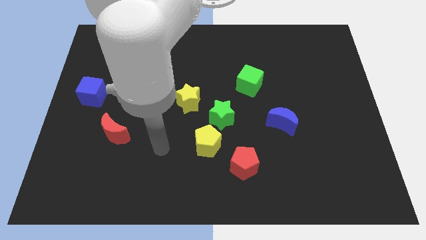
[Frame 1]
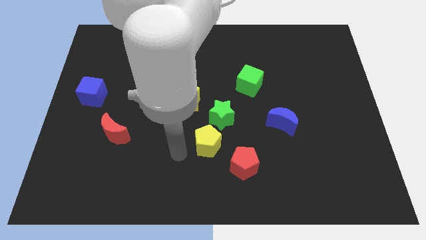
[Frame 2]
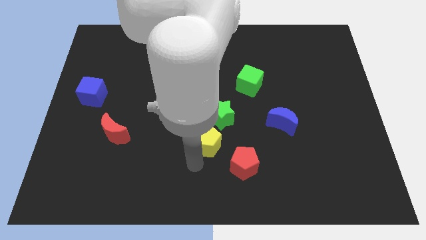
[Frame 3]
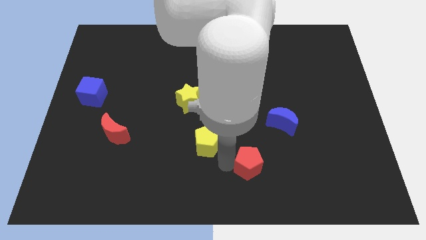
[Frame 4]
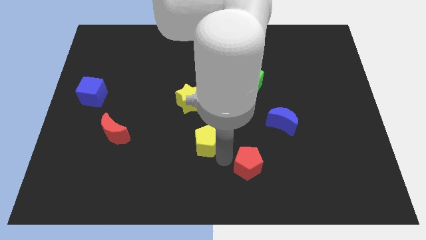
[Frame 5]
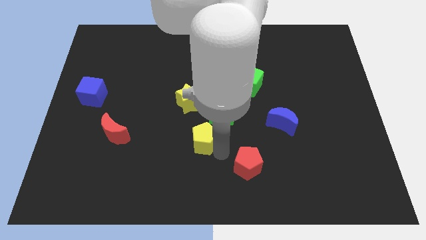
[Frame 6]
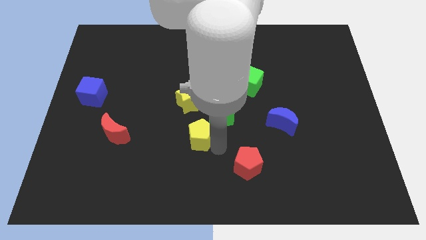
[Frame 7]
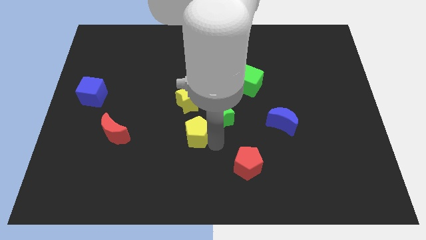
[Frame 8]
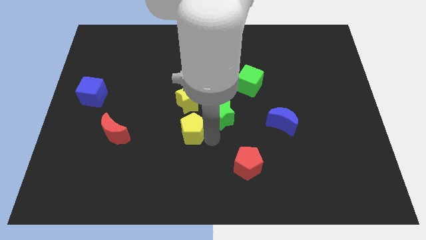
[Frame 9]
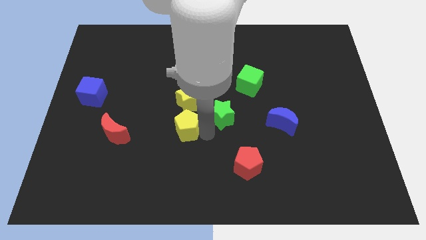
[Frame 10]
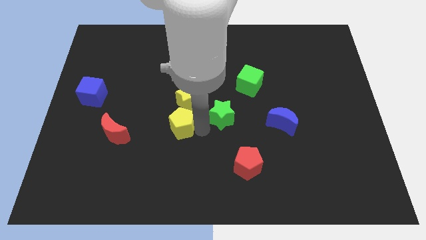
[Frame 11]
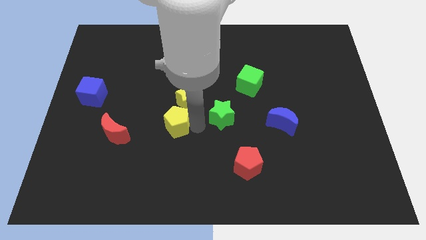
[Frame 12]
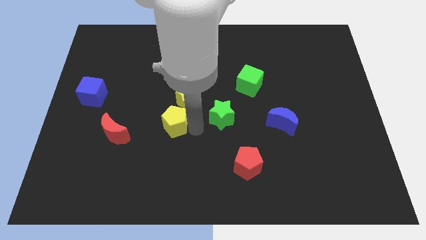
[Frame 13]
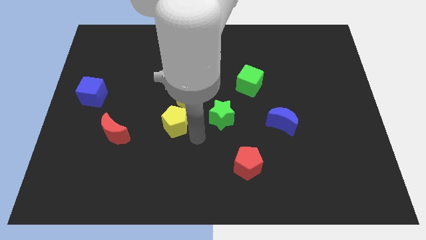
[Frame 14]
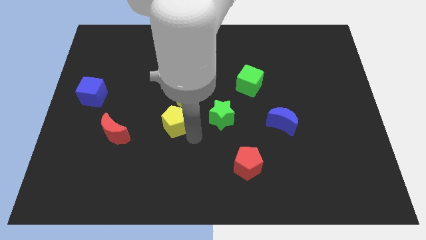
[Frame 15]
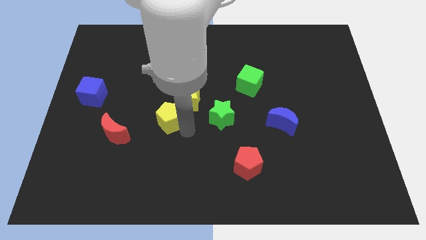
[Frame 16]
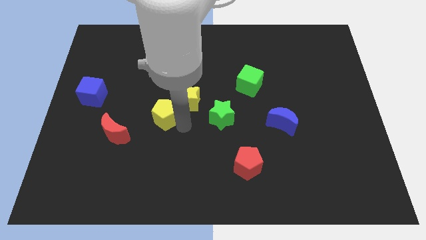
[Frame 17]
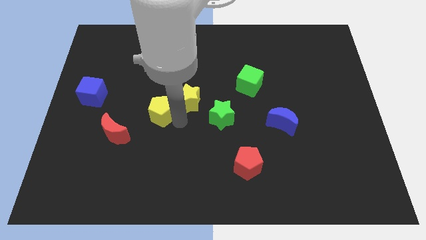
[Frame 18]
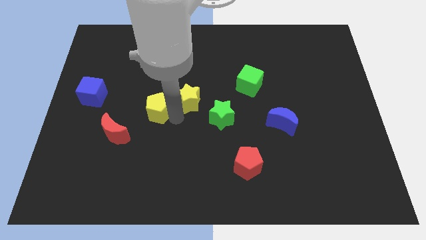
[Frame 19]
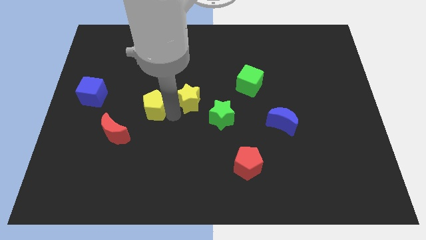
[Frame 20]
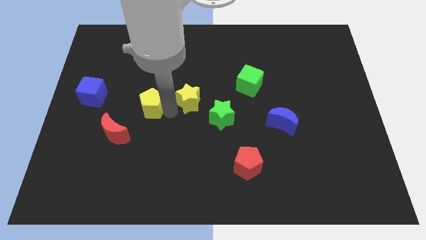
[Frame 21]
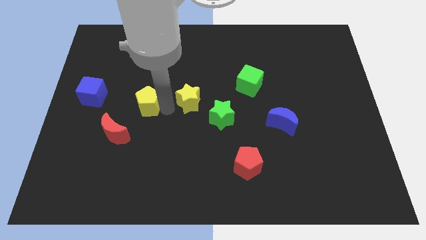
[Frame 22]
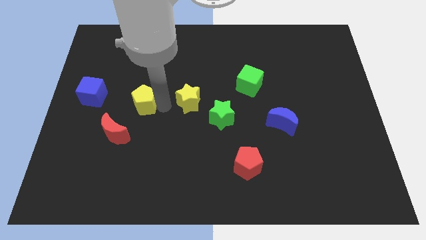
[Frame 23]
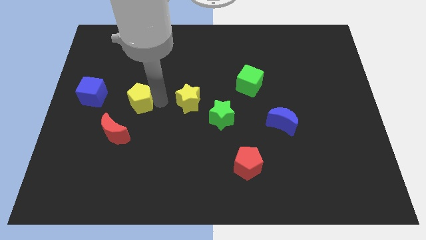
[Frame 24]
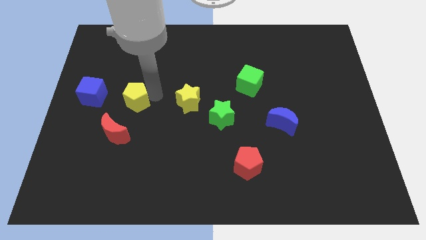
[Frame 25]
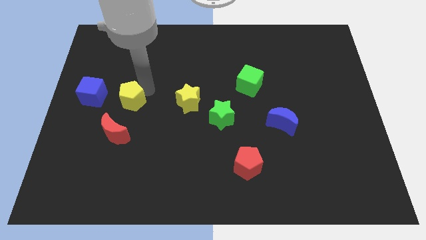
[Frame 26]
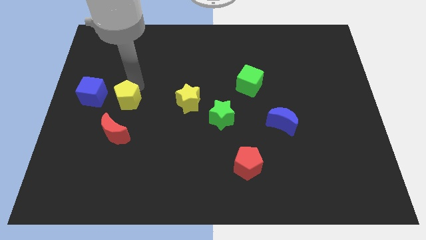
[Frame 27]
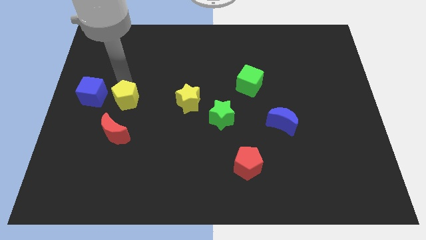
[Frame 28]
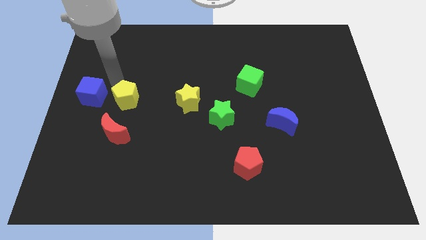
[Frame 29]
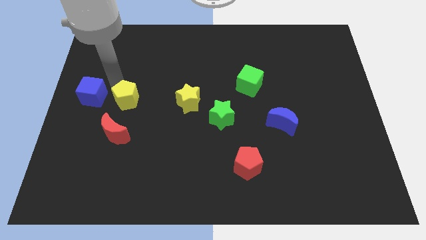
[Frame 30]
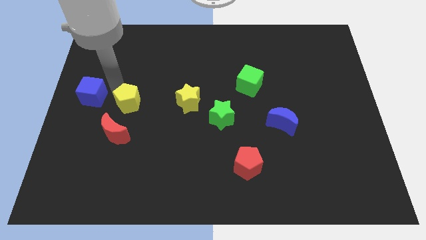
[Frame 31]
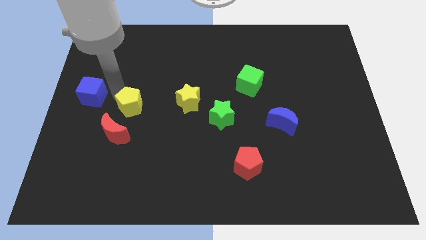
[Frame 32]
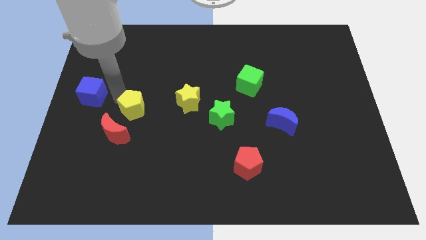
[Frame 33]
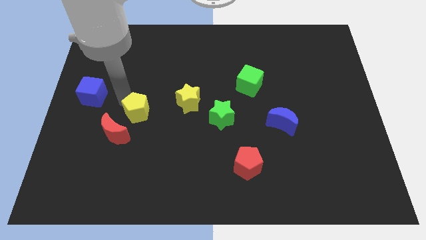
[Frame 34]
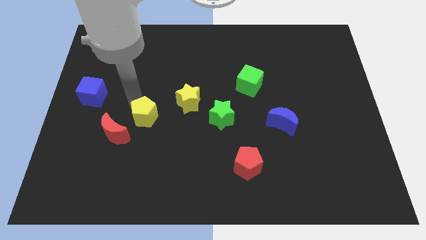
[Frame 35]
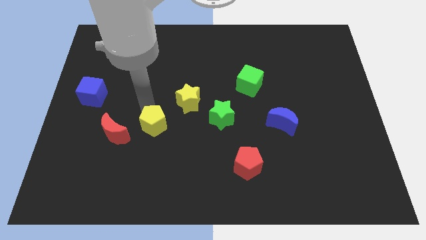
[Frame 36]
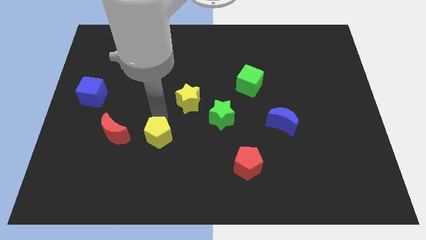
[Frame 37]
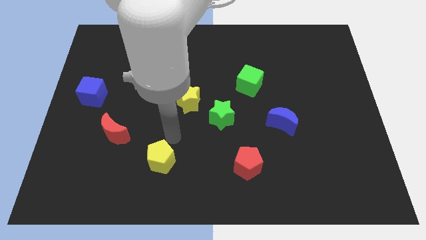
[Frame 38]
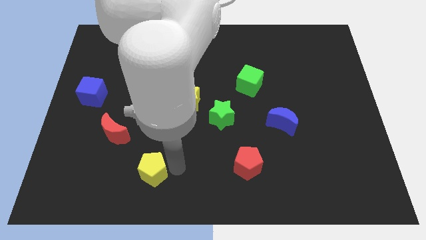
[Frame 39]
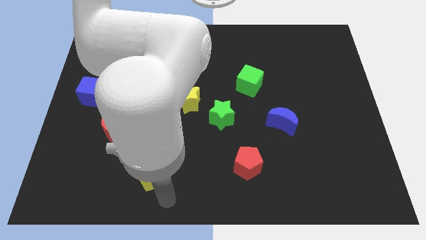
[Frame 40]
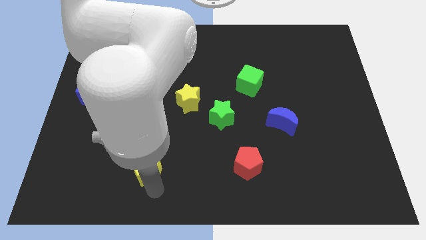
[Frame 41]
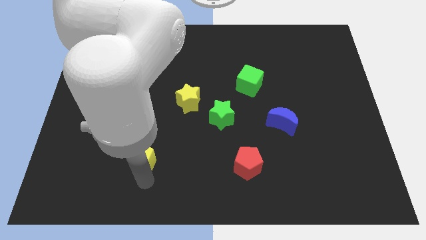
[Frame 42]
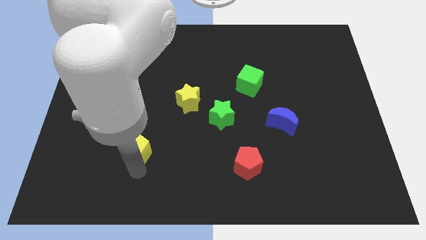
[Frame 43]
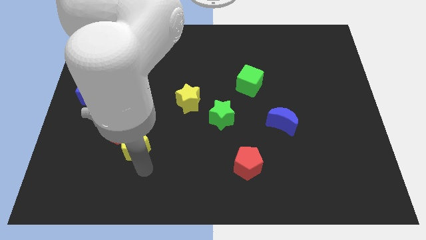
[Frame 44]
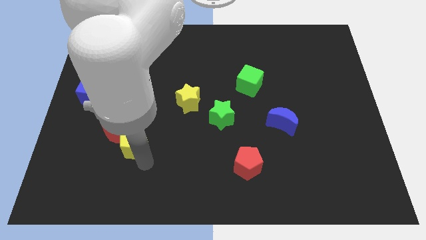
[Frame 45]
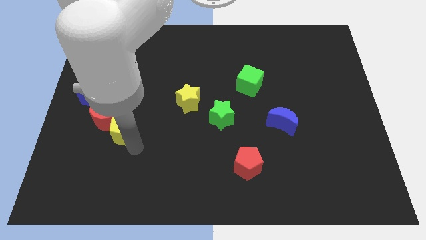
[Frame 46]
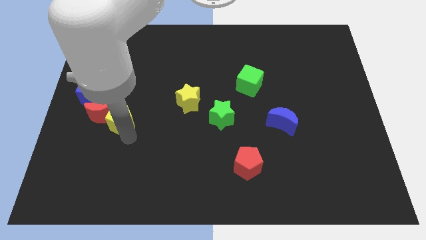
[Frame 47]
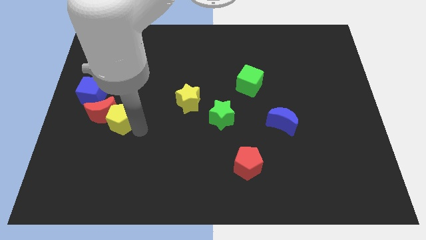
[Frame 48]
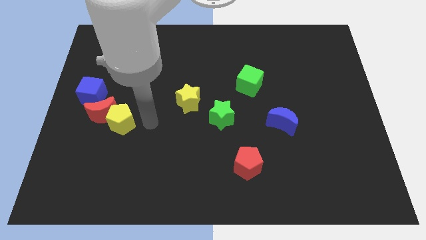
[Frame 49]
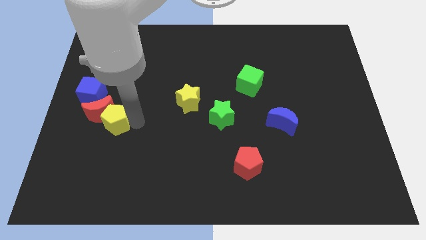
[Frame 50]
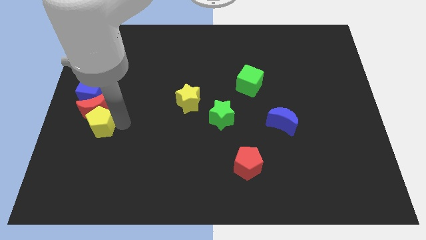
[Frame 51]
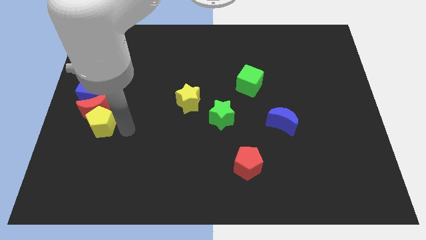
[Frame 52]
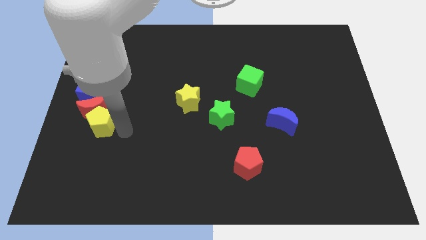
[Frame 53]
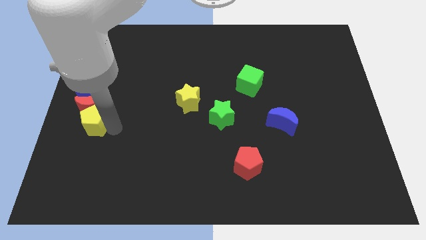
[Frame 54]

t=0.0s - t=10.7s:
put the yellow pentagon to the left side

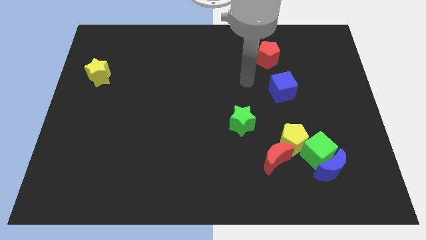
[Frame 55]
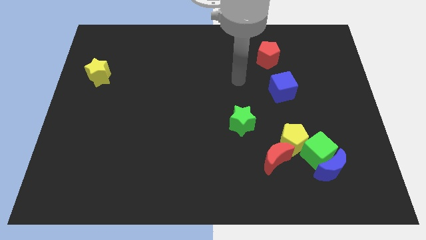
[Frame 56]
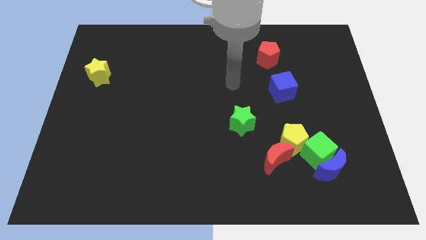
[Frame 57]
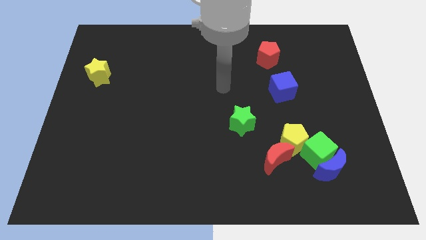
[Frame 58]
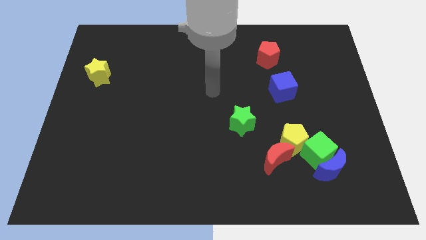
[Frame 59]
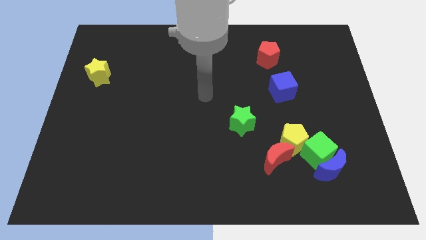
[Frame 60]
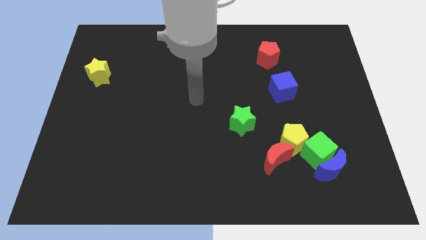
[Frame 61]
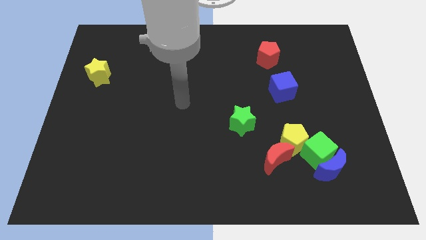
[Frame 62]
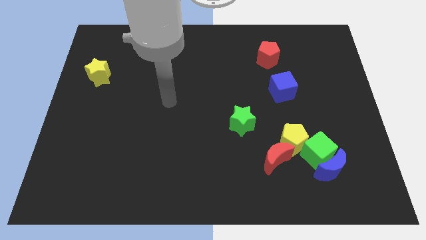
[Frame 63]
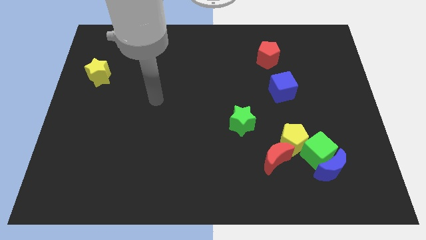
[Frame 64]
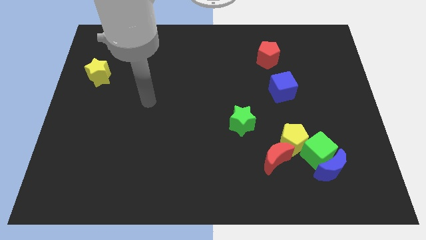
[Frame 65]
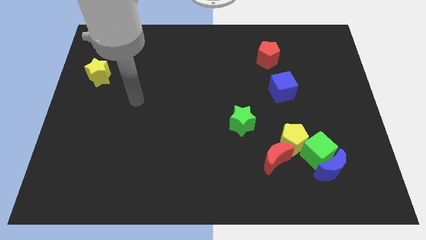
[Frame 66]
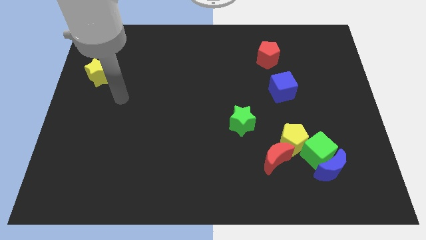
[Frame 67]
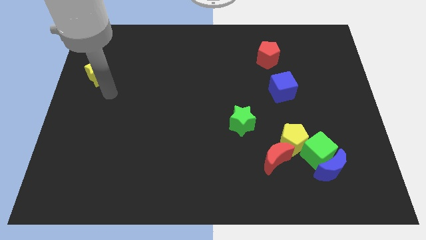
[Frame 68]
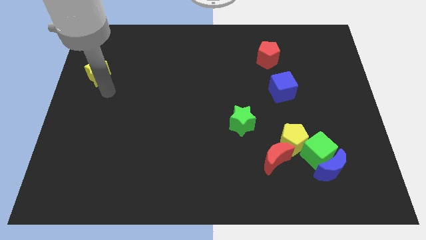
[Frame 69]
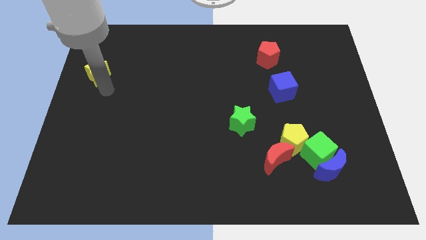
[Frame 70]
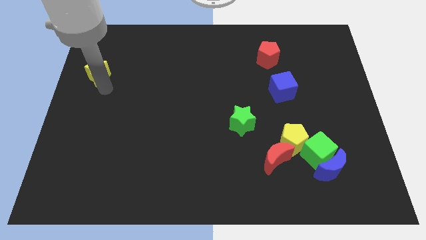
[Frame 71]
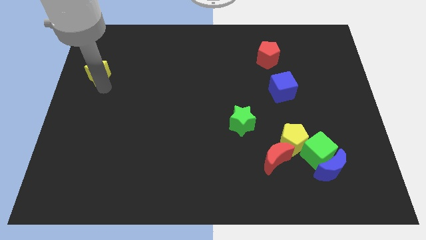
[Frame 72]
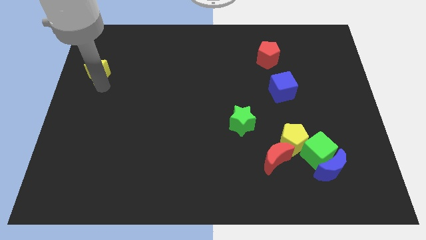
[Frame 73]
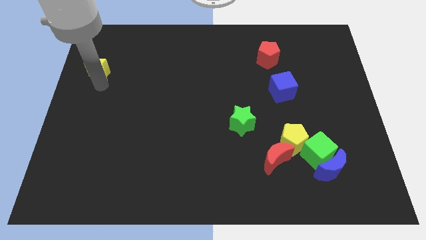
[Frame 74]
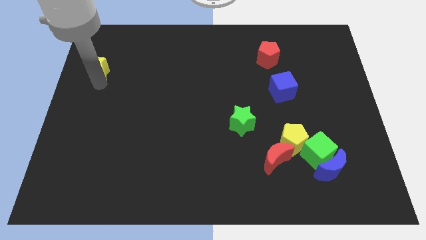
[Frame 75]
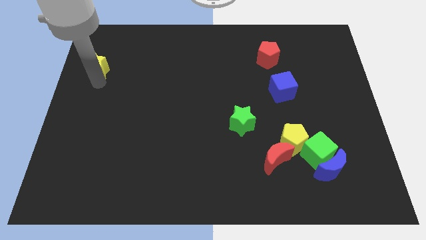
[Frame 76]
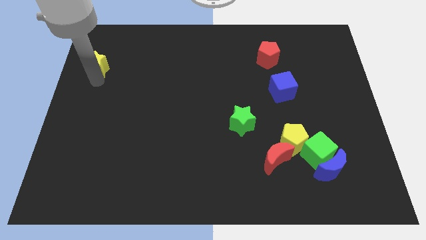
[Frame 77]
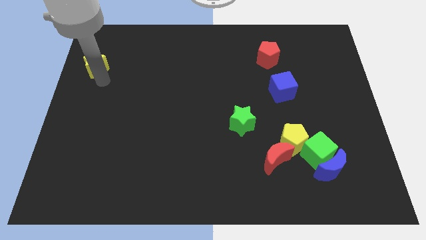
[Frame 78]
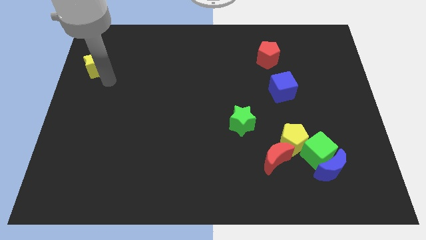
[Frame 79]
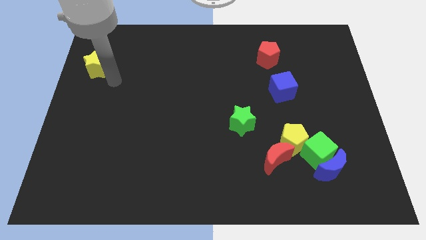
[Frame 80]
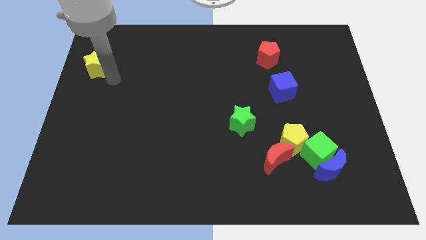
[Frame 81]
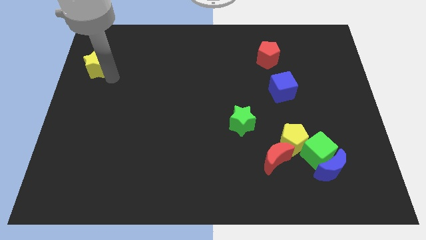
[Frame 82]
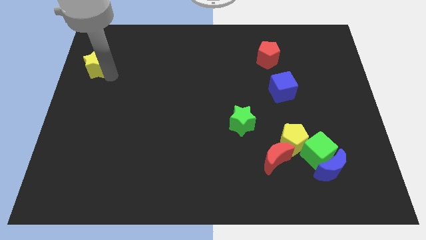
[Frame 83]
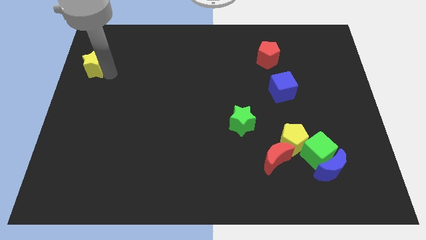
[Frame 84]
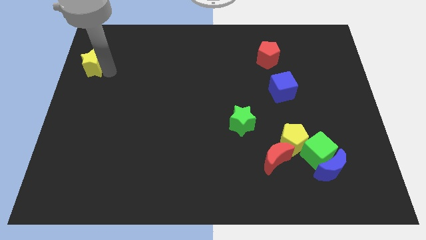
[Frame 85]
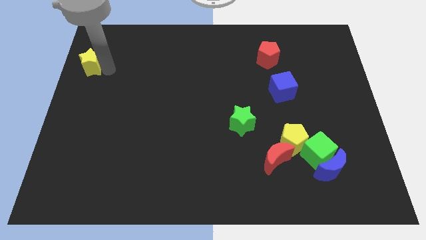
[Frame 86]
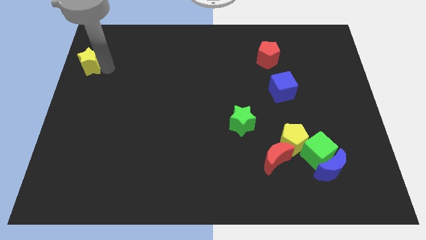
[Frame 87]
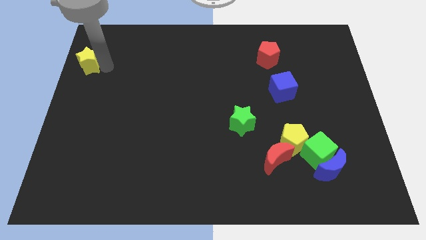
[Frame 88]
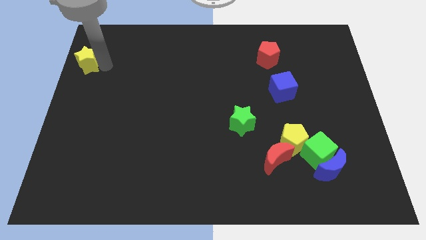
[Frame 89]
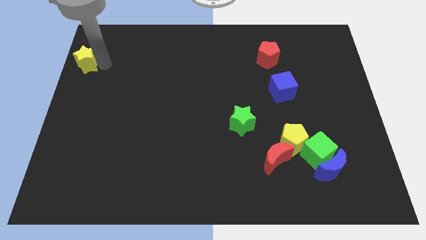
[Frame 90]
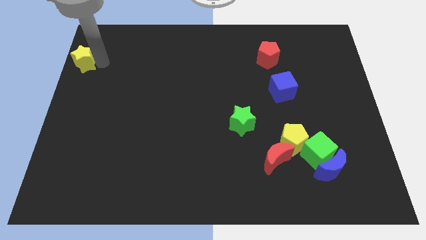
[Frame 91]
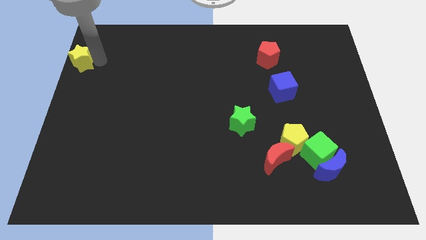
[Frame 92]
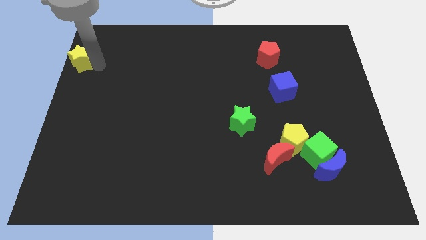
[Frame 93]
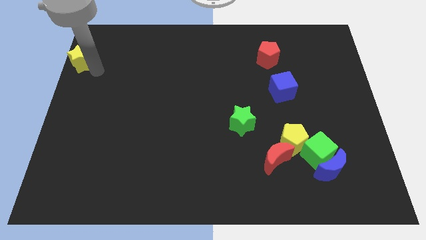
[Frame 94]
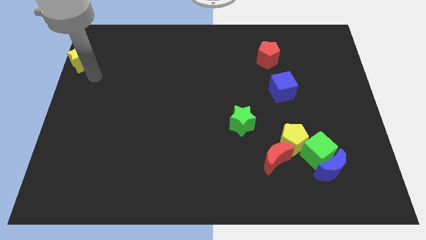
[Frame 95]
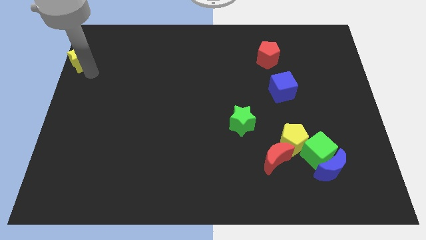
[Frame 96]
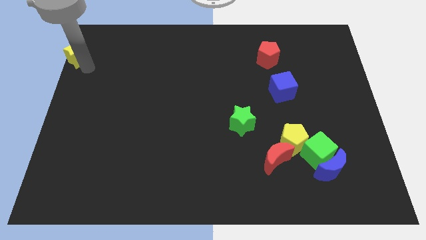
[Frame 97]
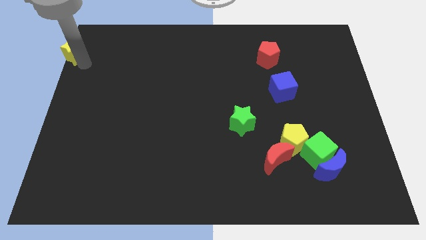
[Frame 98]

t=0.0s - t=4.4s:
push the yellow star to the top left of the board
